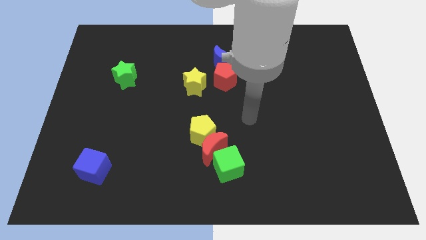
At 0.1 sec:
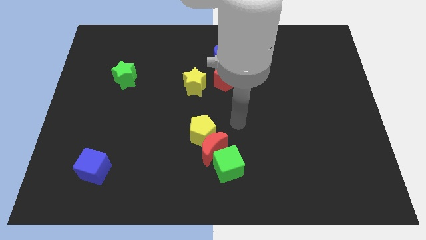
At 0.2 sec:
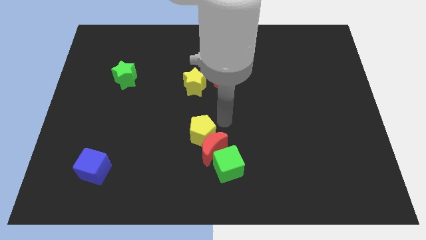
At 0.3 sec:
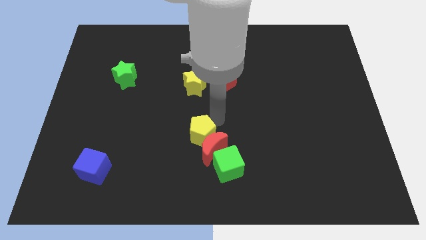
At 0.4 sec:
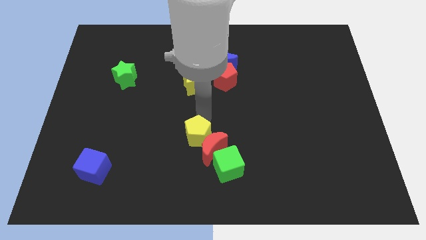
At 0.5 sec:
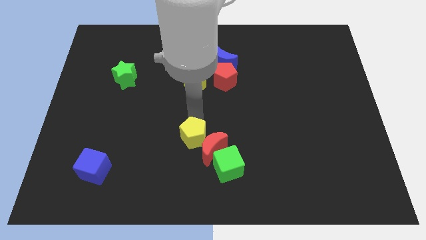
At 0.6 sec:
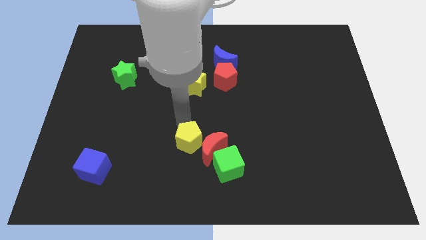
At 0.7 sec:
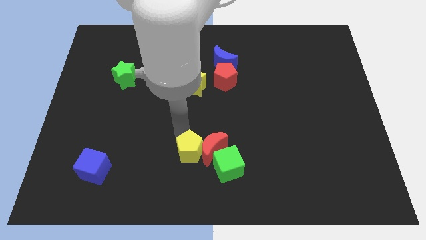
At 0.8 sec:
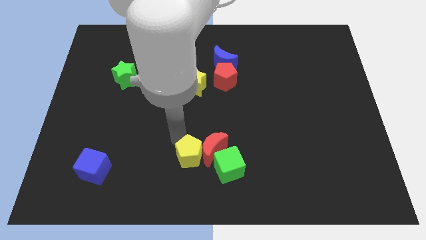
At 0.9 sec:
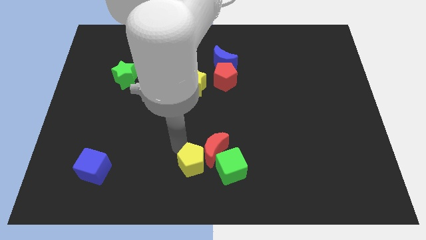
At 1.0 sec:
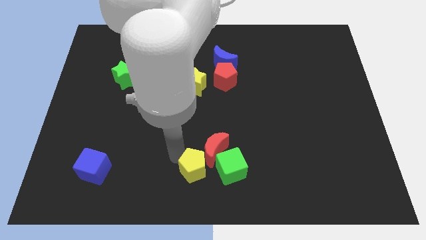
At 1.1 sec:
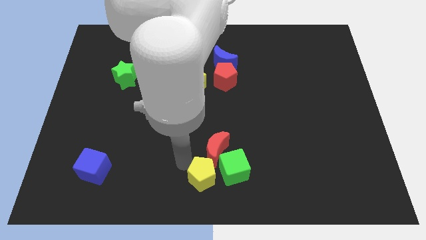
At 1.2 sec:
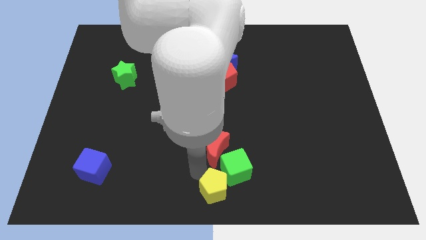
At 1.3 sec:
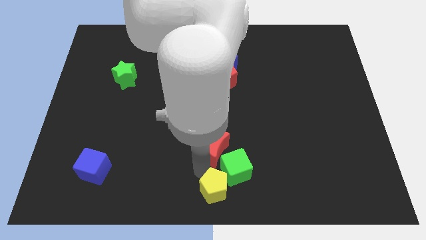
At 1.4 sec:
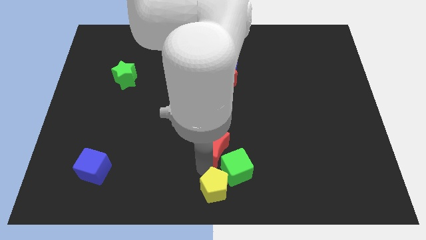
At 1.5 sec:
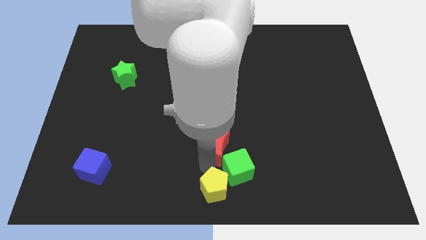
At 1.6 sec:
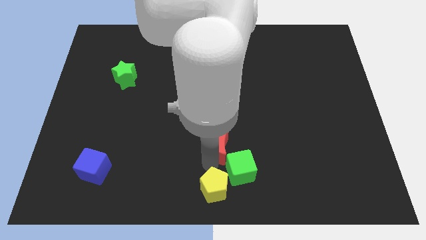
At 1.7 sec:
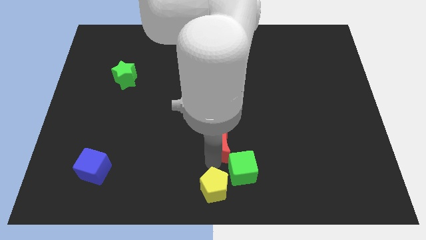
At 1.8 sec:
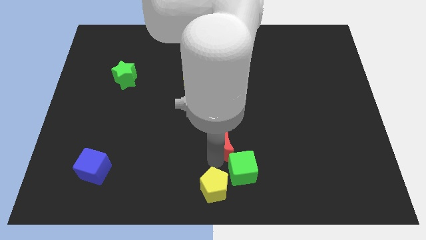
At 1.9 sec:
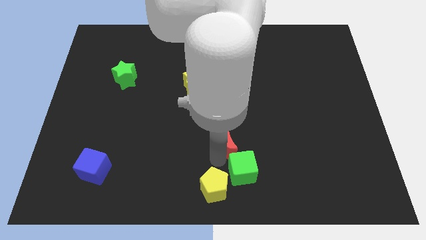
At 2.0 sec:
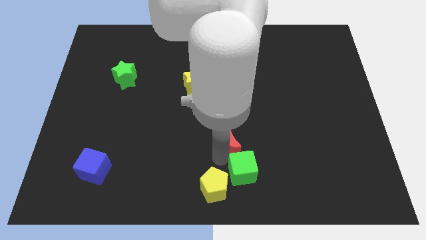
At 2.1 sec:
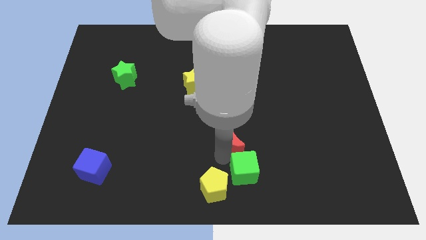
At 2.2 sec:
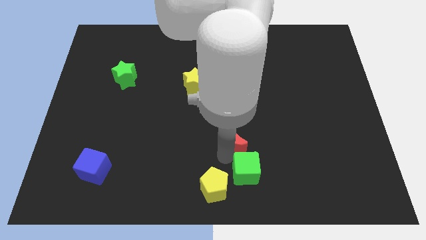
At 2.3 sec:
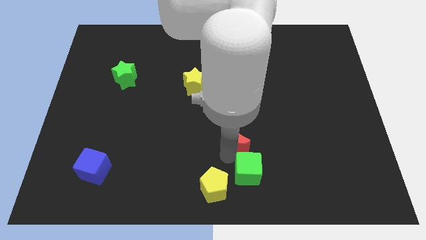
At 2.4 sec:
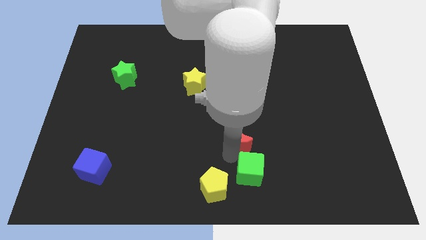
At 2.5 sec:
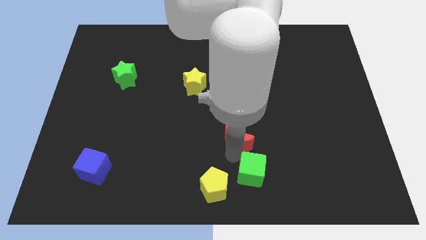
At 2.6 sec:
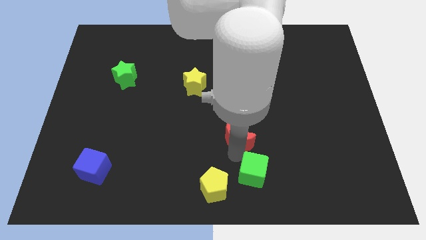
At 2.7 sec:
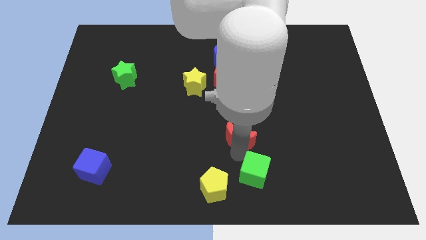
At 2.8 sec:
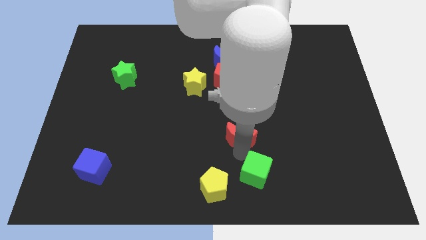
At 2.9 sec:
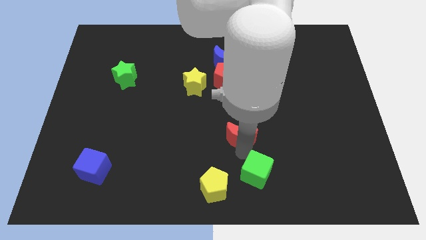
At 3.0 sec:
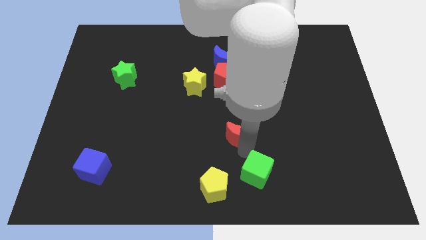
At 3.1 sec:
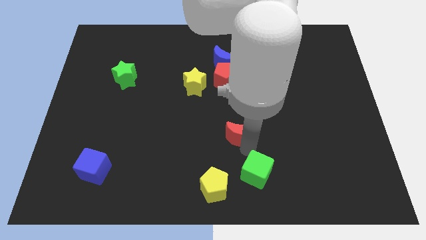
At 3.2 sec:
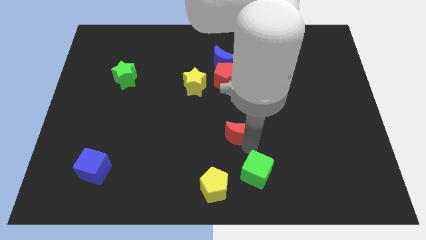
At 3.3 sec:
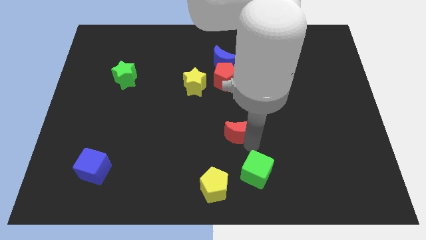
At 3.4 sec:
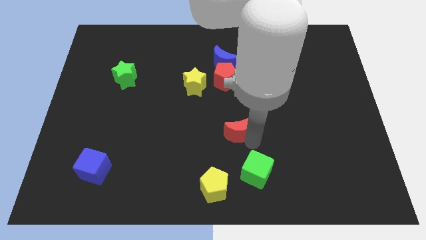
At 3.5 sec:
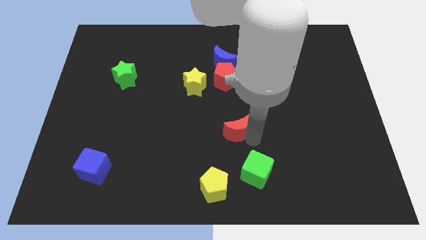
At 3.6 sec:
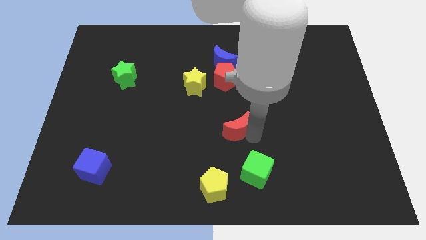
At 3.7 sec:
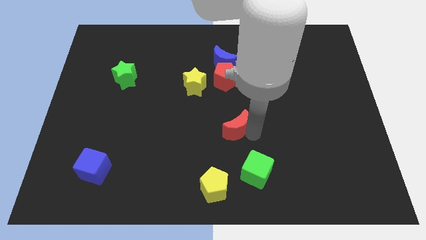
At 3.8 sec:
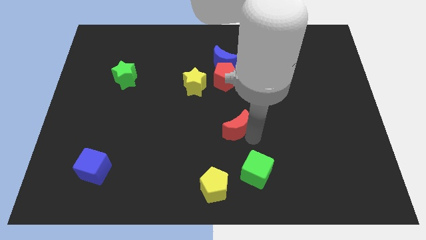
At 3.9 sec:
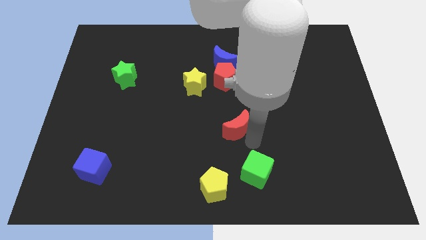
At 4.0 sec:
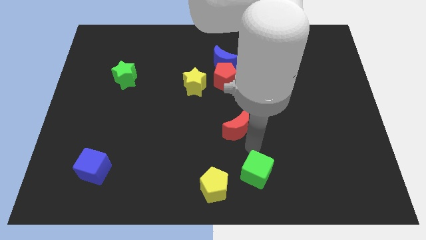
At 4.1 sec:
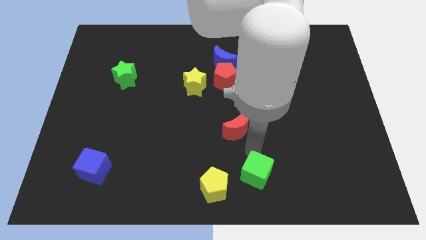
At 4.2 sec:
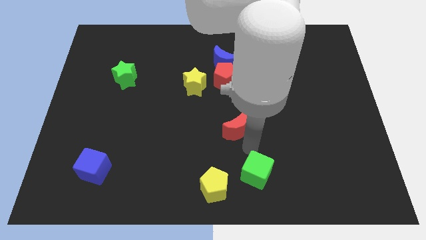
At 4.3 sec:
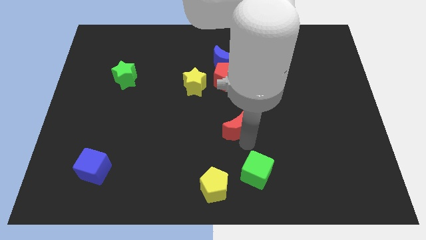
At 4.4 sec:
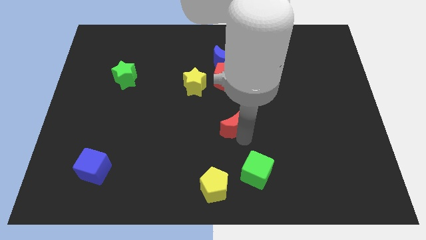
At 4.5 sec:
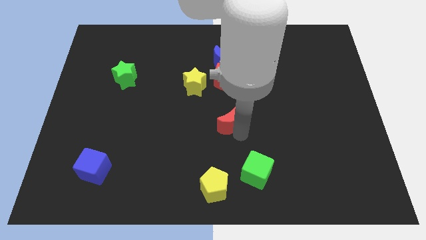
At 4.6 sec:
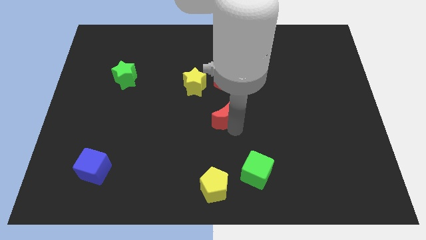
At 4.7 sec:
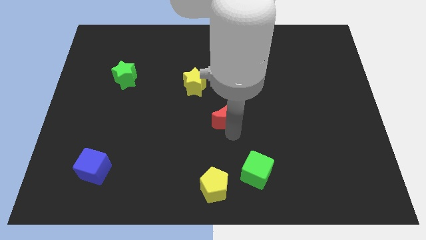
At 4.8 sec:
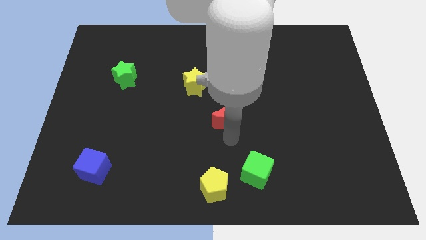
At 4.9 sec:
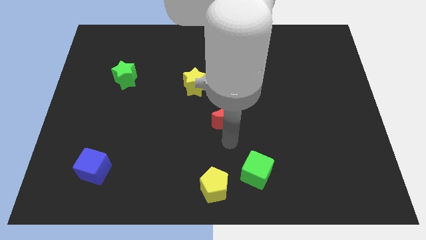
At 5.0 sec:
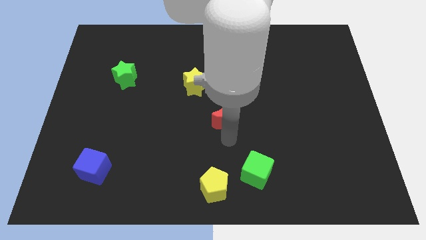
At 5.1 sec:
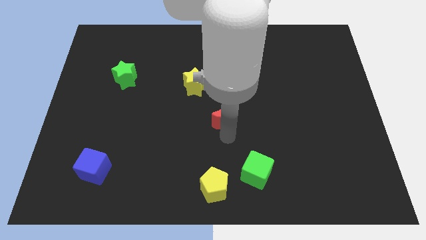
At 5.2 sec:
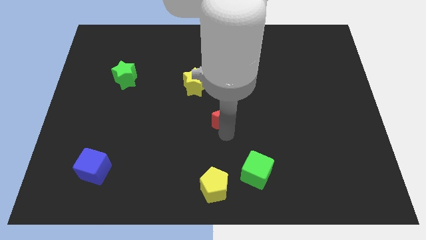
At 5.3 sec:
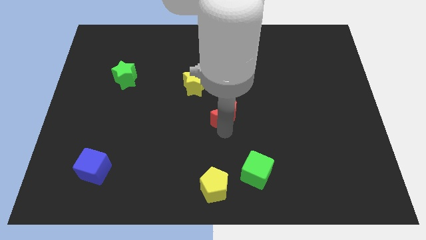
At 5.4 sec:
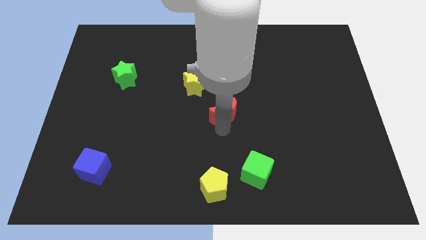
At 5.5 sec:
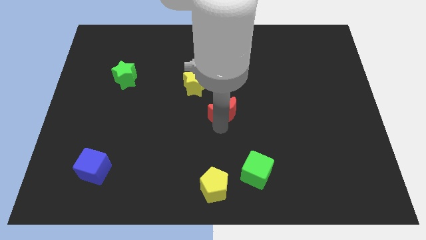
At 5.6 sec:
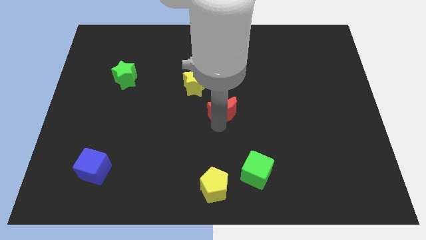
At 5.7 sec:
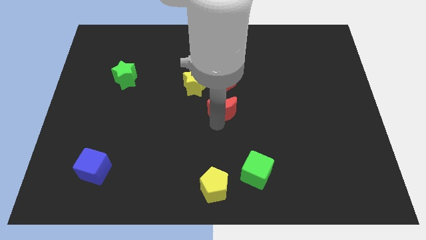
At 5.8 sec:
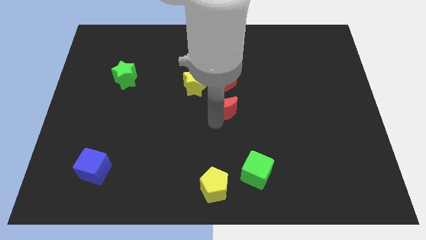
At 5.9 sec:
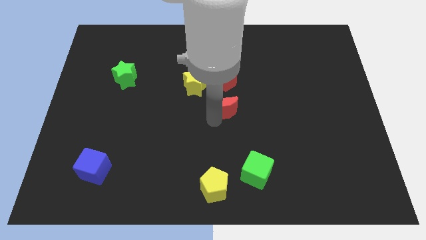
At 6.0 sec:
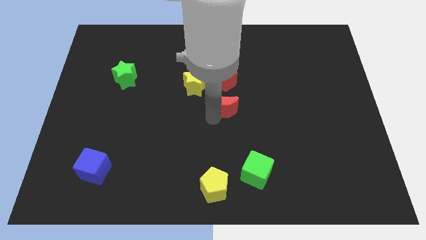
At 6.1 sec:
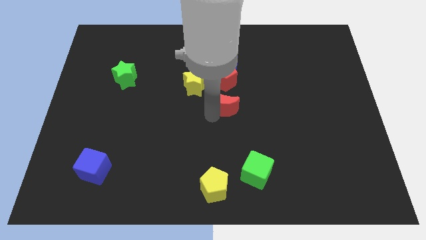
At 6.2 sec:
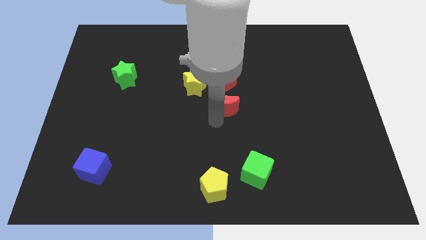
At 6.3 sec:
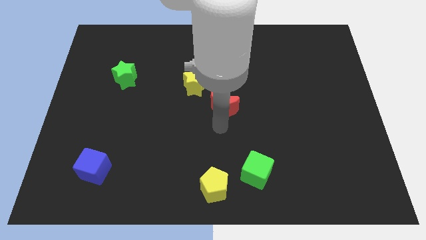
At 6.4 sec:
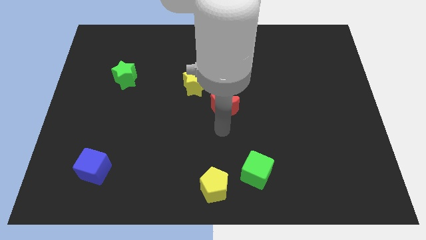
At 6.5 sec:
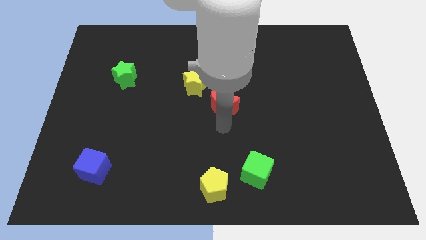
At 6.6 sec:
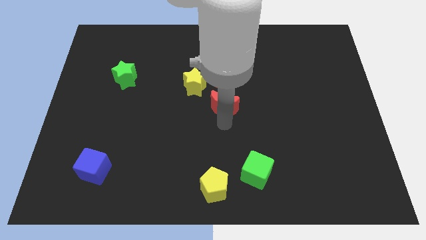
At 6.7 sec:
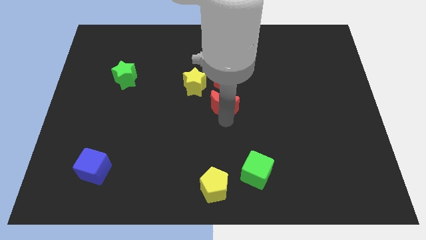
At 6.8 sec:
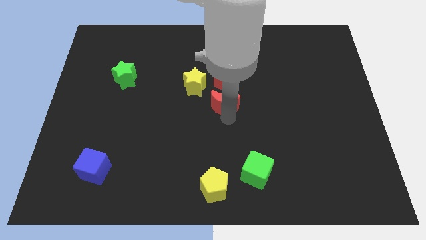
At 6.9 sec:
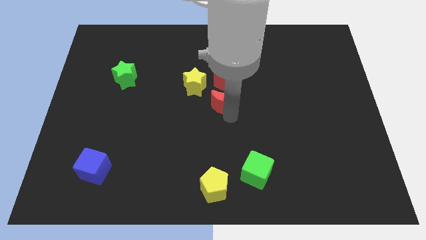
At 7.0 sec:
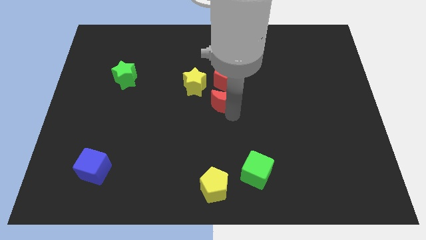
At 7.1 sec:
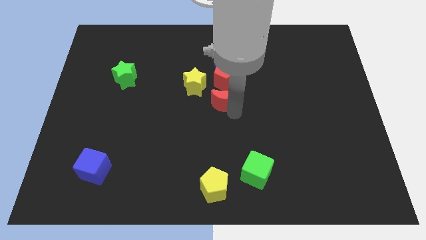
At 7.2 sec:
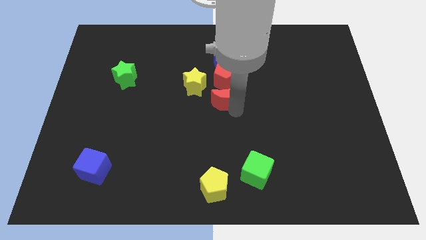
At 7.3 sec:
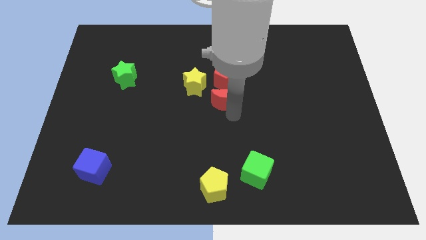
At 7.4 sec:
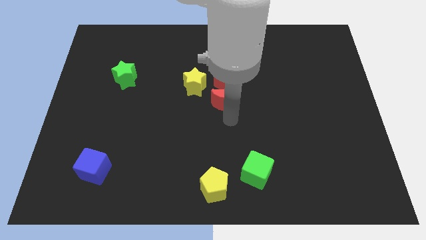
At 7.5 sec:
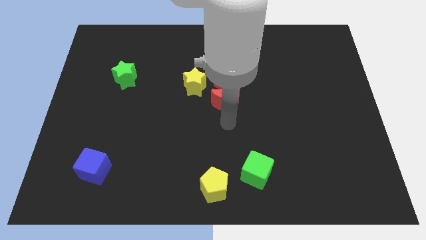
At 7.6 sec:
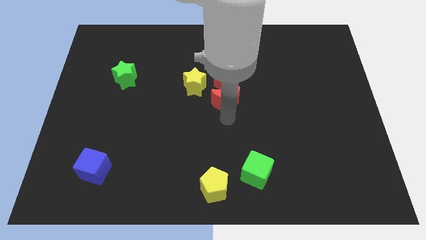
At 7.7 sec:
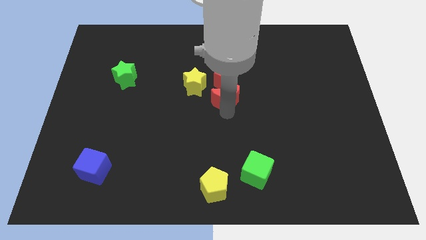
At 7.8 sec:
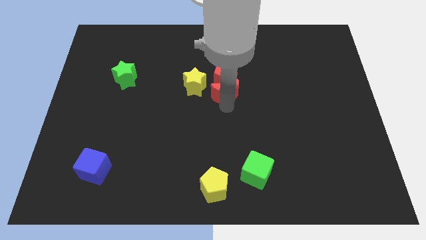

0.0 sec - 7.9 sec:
push the red moon close to the red pentagon
